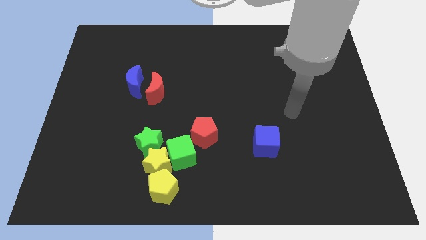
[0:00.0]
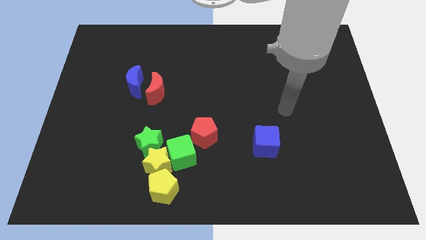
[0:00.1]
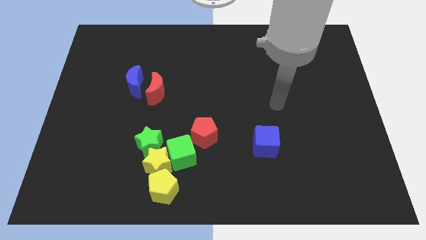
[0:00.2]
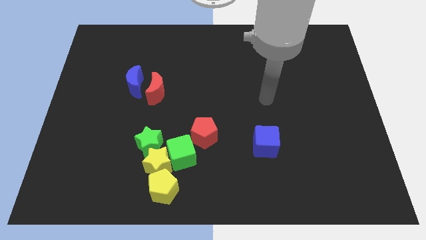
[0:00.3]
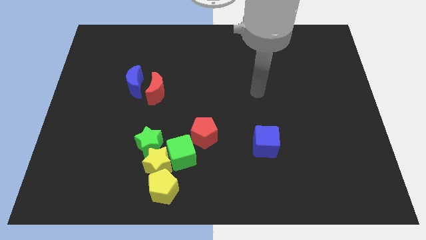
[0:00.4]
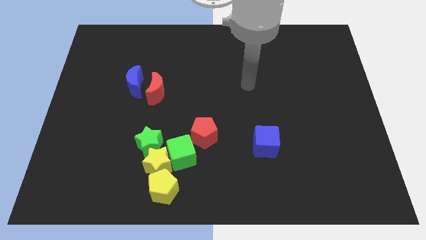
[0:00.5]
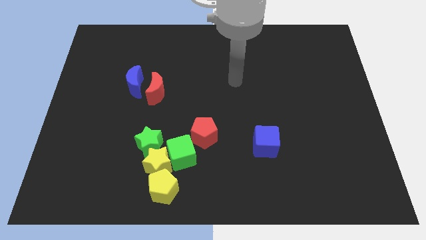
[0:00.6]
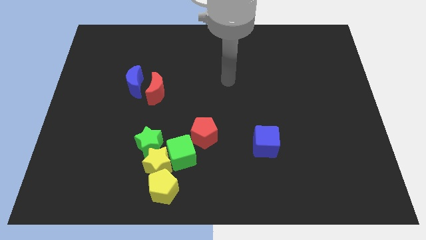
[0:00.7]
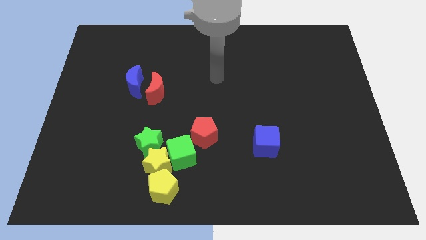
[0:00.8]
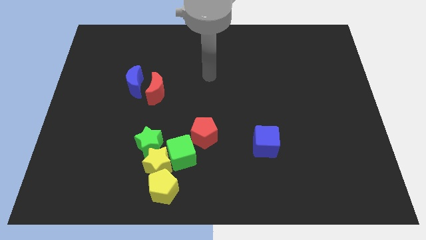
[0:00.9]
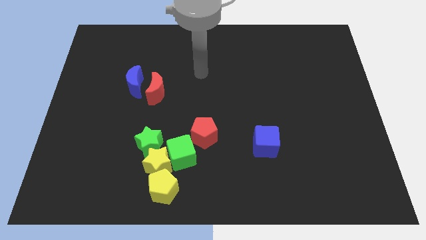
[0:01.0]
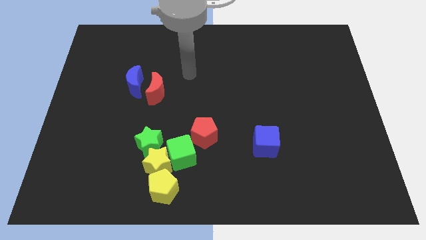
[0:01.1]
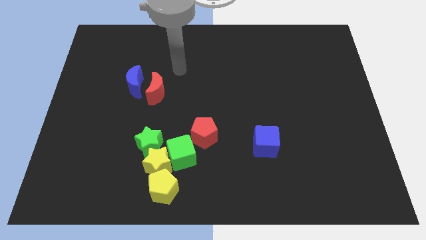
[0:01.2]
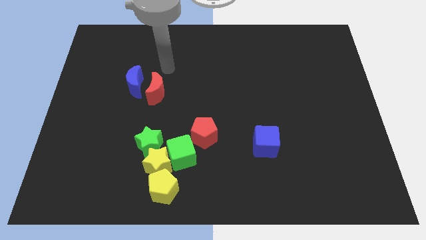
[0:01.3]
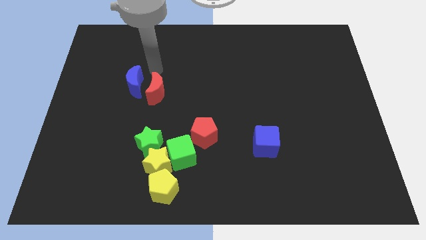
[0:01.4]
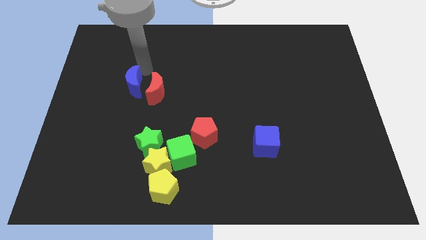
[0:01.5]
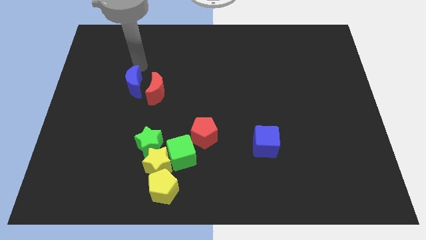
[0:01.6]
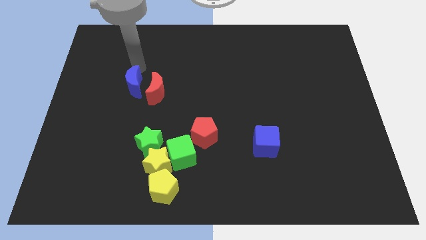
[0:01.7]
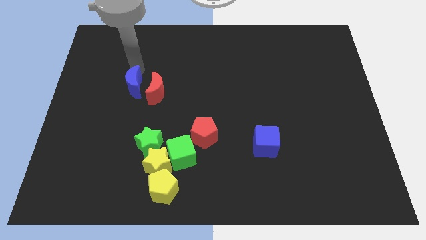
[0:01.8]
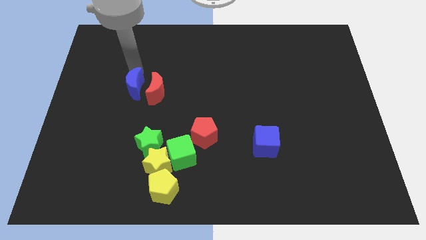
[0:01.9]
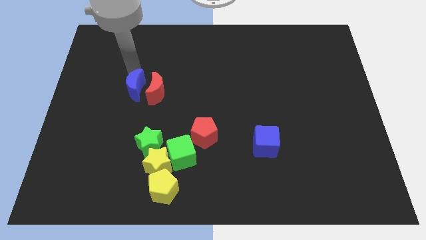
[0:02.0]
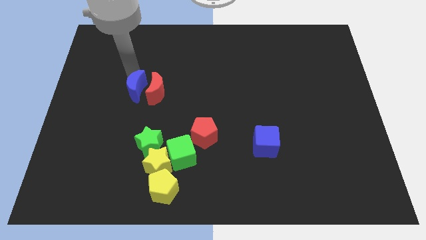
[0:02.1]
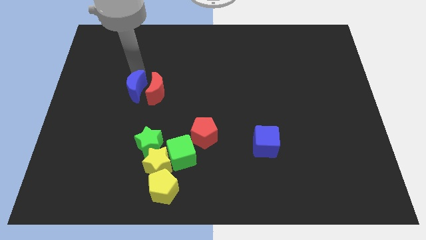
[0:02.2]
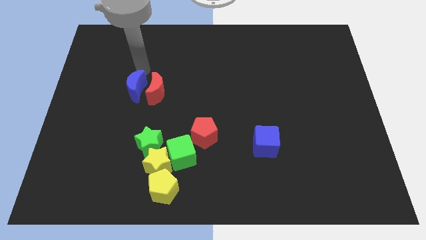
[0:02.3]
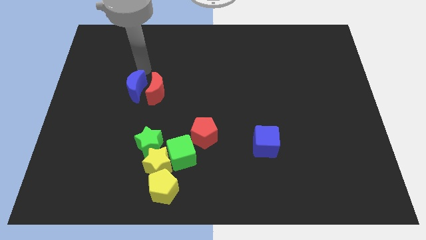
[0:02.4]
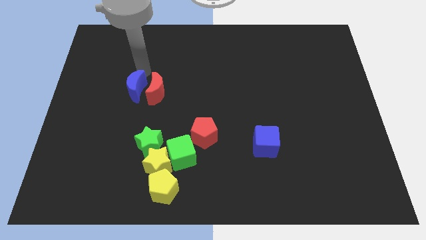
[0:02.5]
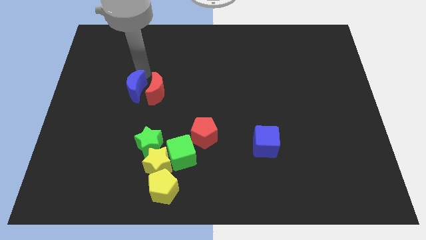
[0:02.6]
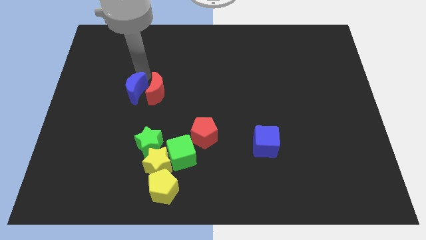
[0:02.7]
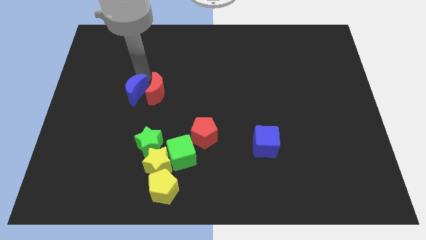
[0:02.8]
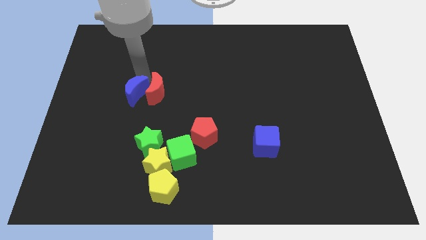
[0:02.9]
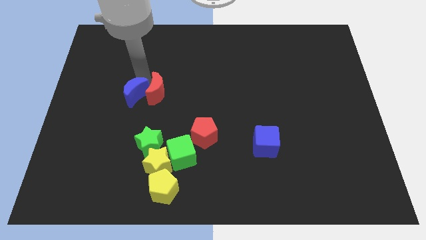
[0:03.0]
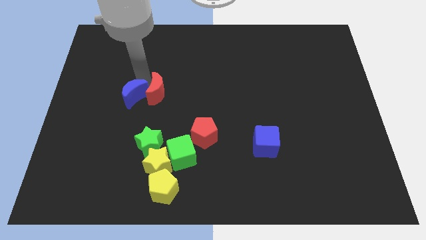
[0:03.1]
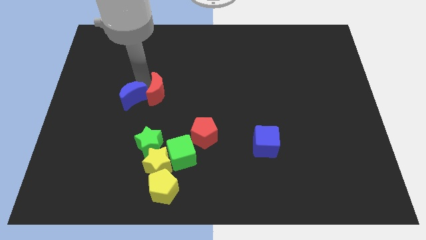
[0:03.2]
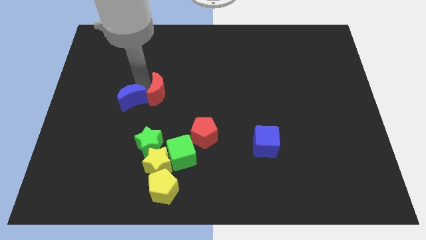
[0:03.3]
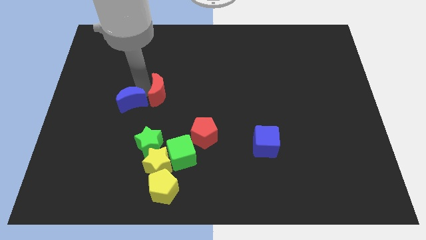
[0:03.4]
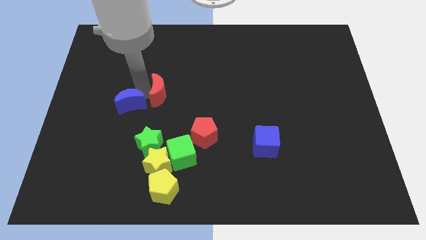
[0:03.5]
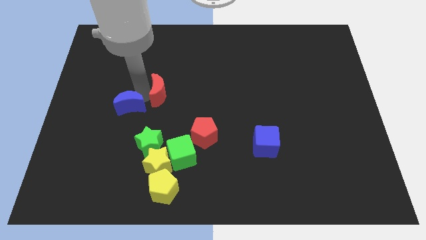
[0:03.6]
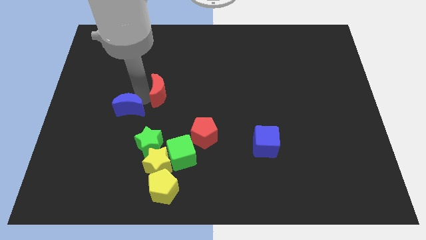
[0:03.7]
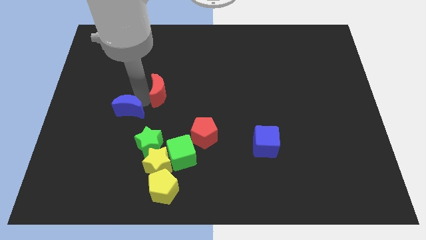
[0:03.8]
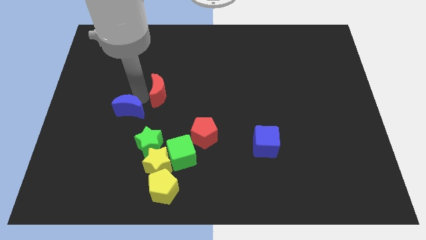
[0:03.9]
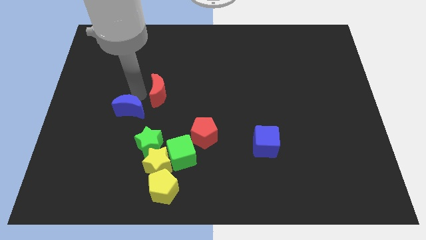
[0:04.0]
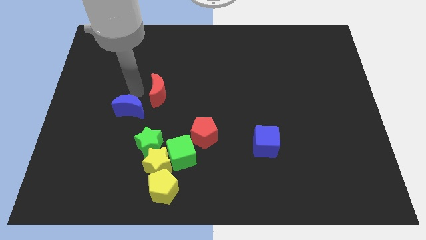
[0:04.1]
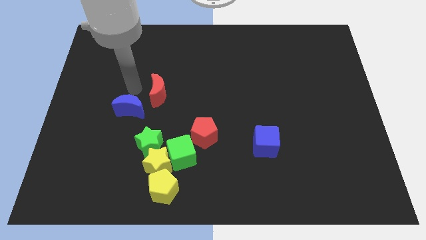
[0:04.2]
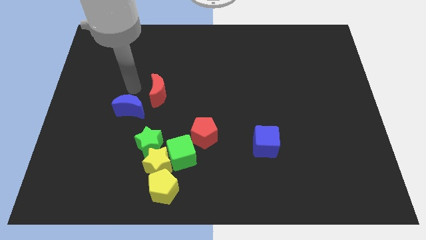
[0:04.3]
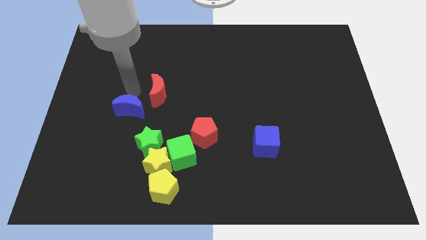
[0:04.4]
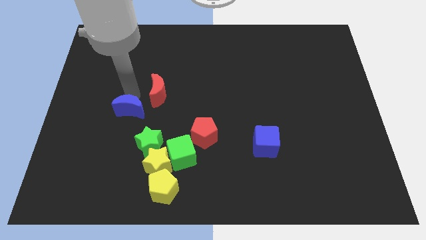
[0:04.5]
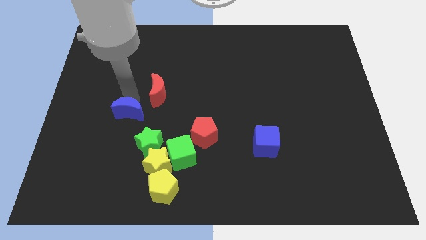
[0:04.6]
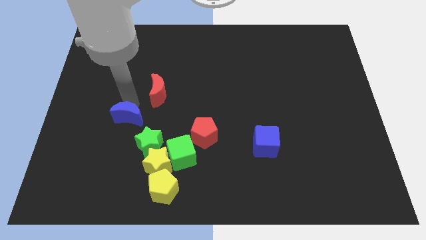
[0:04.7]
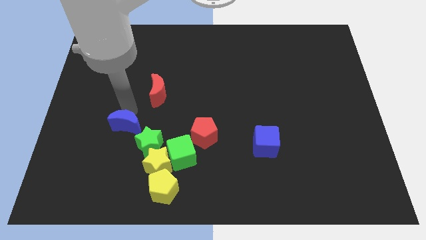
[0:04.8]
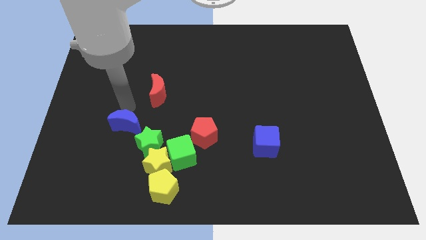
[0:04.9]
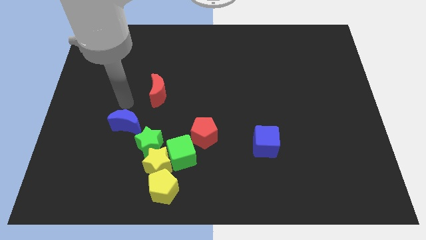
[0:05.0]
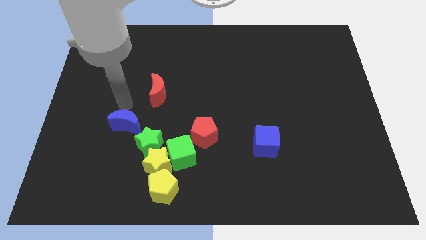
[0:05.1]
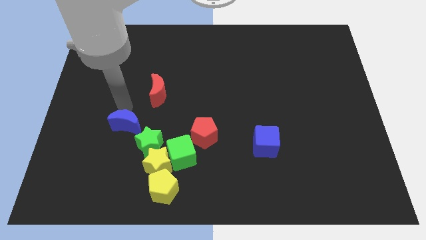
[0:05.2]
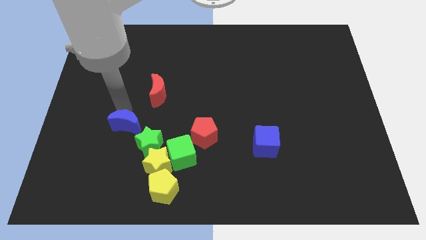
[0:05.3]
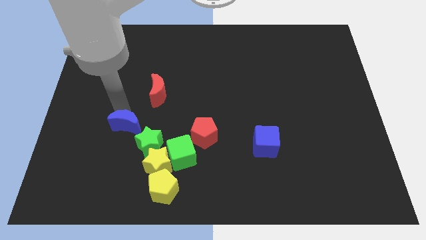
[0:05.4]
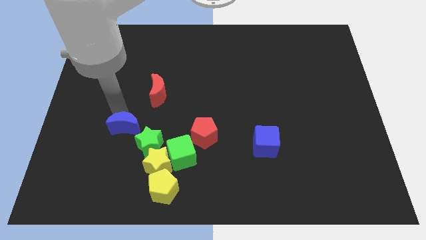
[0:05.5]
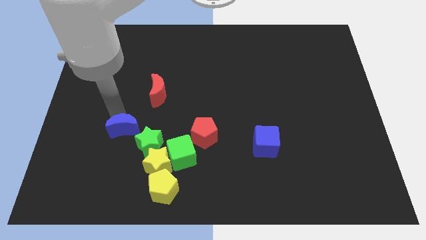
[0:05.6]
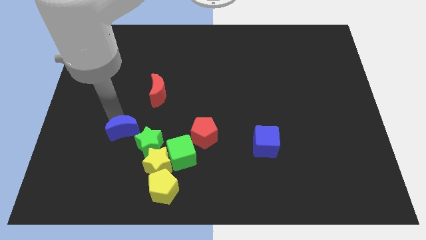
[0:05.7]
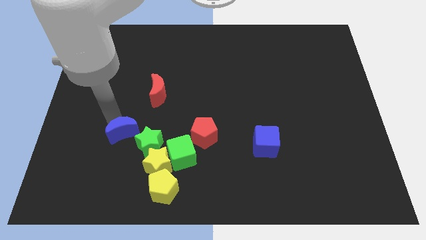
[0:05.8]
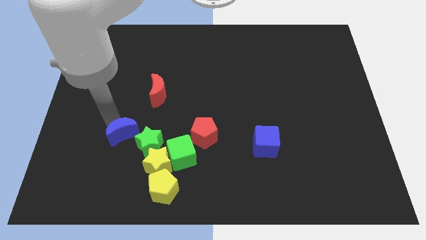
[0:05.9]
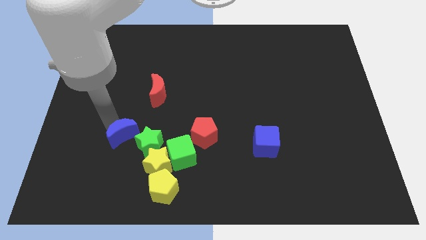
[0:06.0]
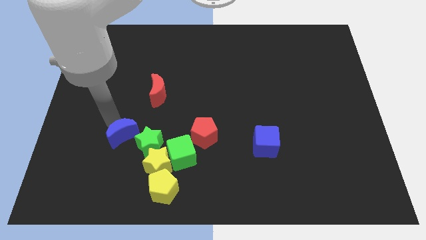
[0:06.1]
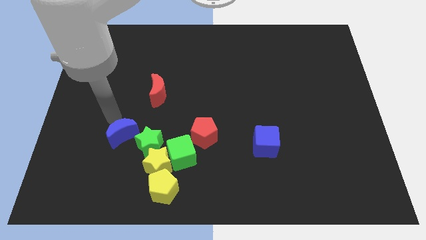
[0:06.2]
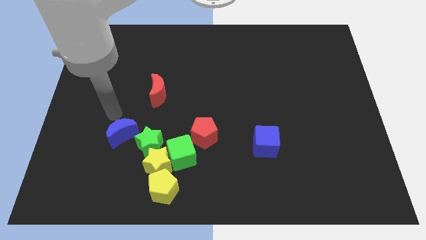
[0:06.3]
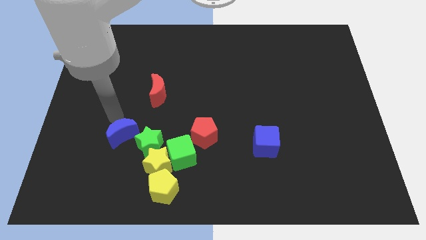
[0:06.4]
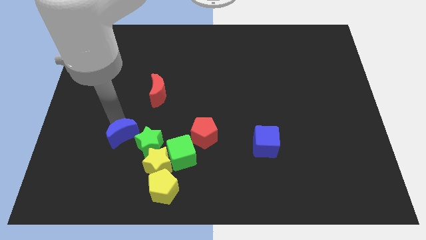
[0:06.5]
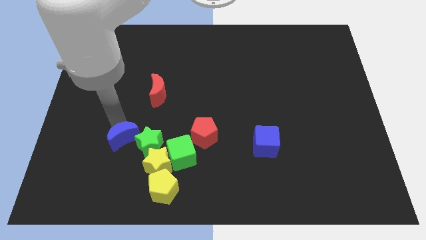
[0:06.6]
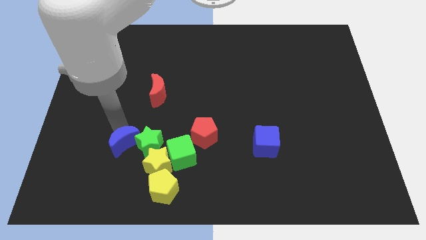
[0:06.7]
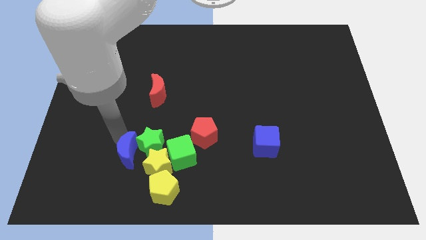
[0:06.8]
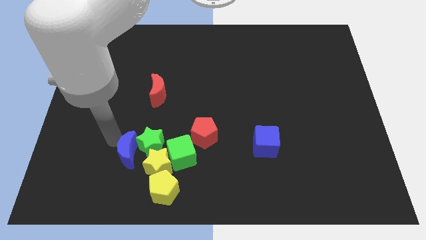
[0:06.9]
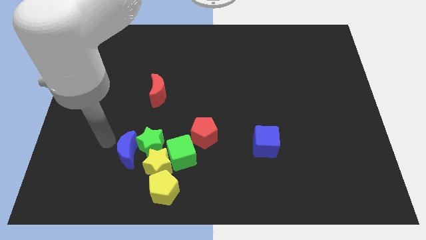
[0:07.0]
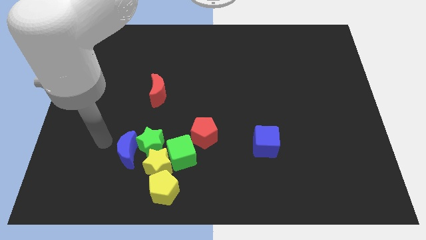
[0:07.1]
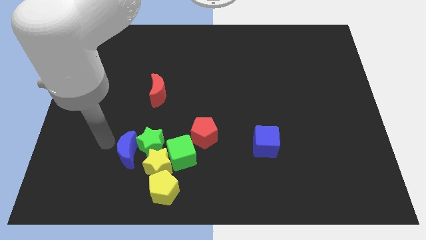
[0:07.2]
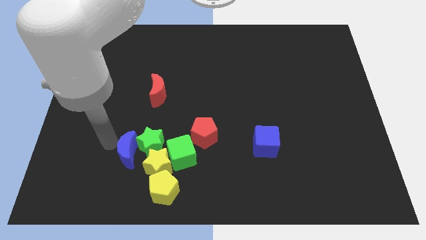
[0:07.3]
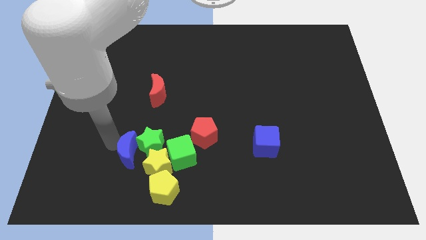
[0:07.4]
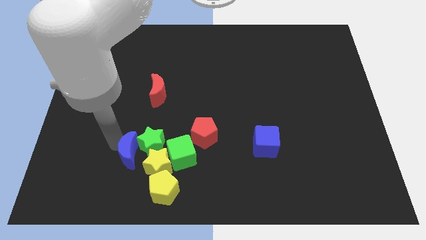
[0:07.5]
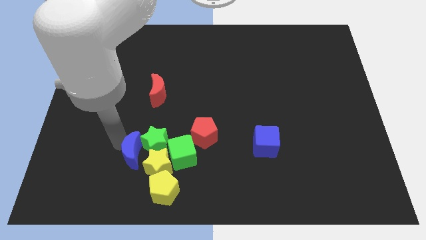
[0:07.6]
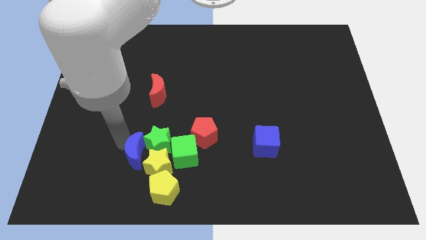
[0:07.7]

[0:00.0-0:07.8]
push the blue moon next to the yellow star
